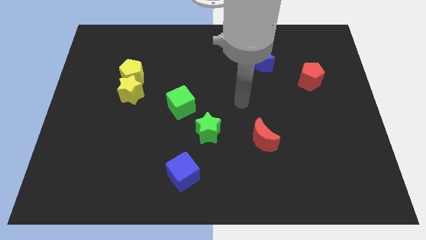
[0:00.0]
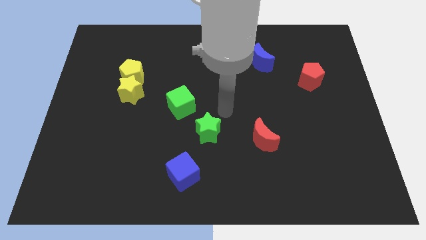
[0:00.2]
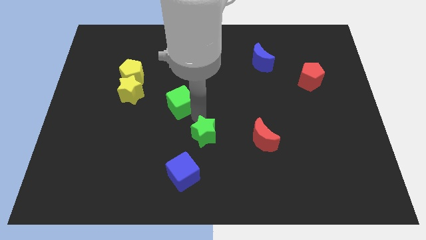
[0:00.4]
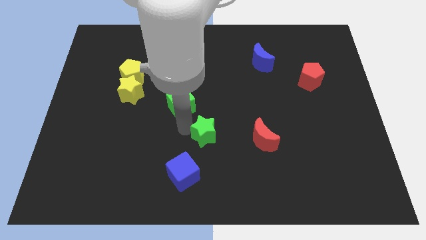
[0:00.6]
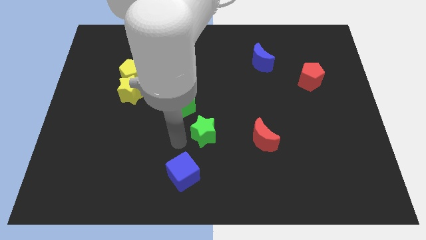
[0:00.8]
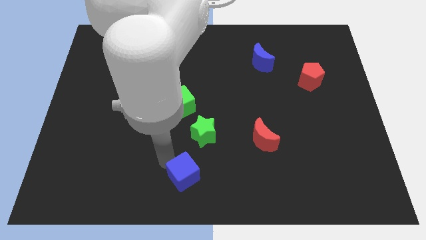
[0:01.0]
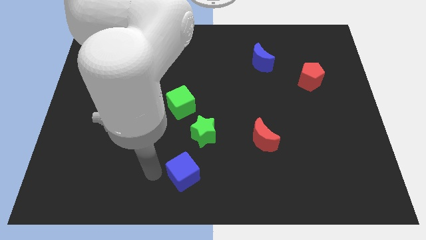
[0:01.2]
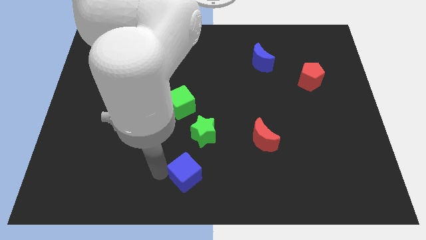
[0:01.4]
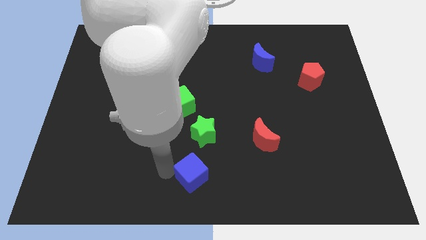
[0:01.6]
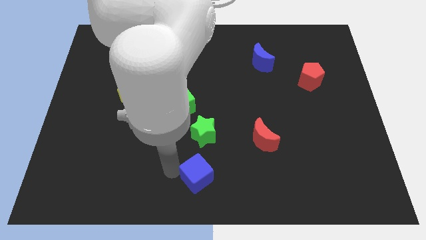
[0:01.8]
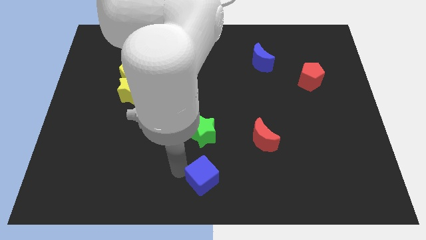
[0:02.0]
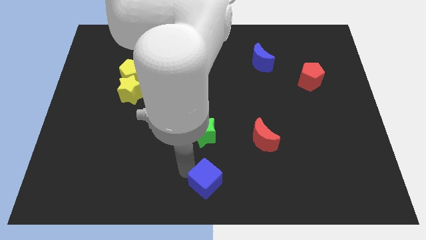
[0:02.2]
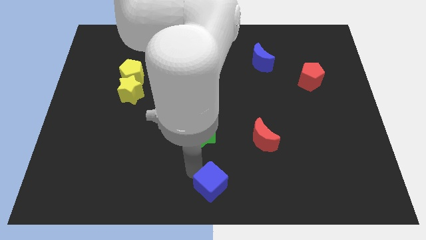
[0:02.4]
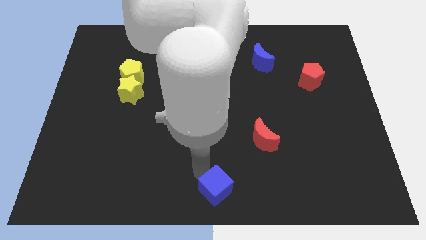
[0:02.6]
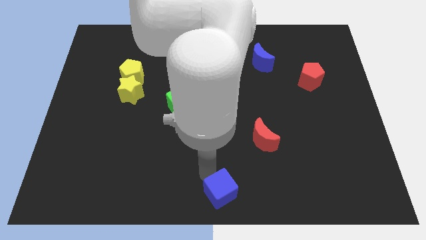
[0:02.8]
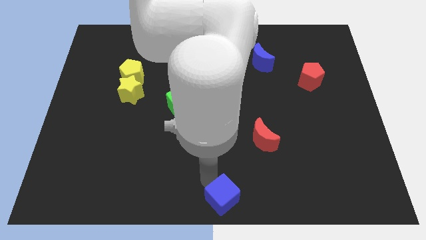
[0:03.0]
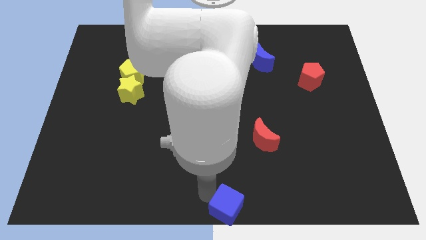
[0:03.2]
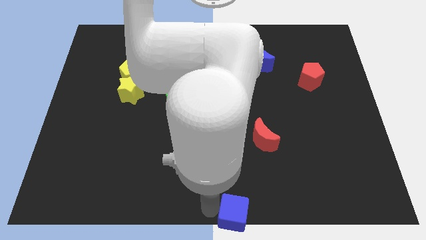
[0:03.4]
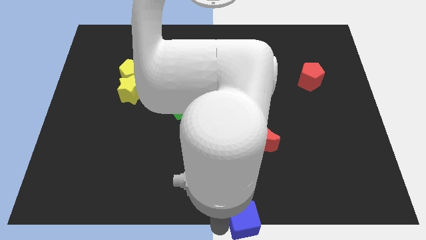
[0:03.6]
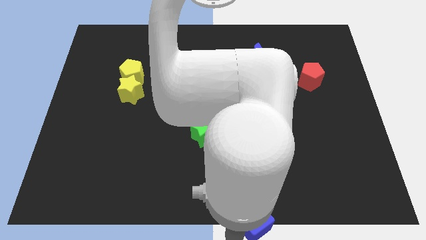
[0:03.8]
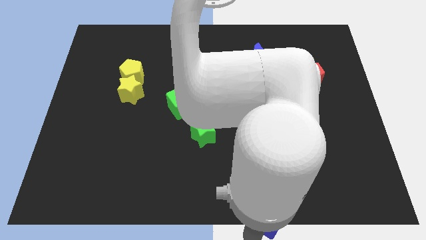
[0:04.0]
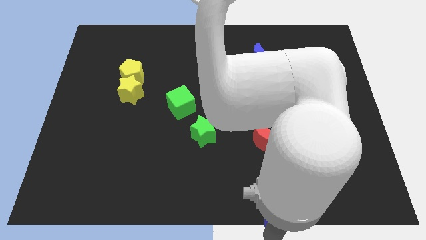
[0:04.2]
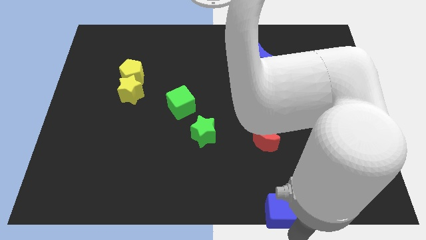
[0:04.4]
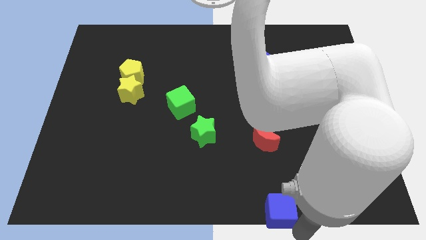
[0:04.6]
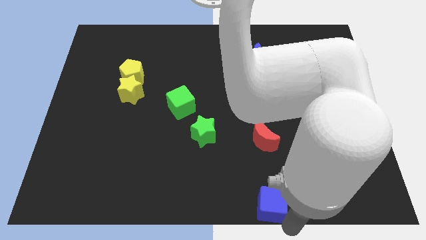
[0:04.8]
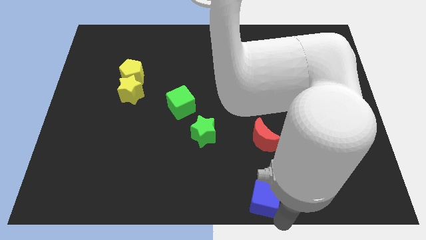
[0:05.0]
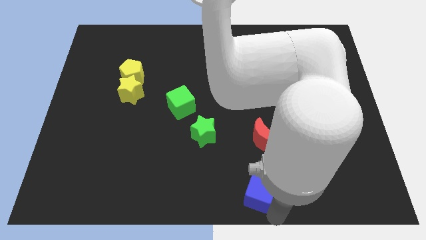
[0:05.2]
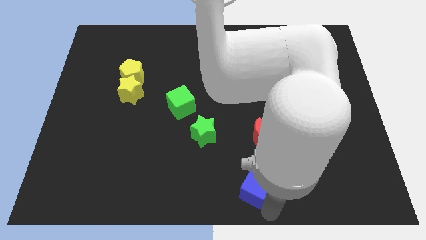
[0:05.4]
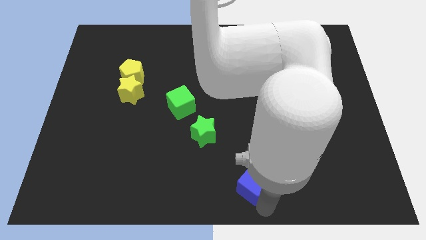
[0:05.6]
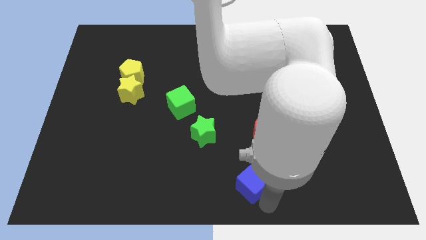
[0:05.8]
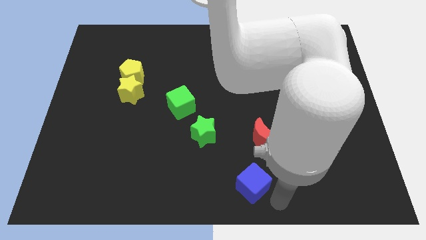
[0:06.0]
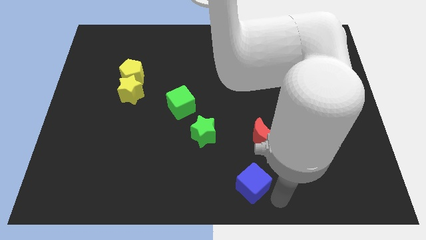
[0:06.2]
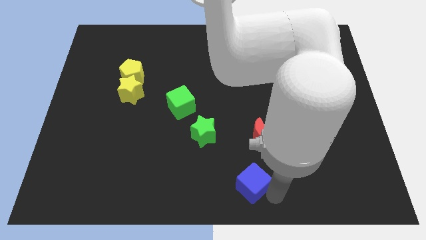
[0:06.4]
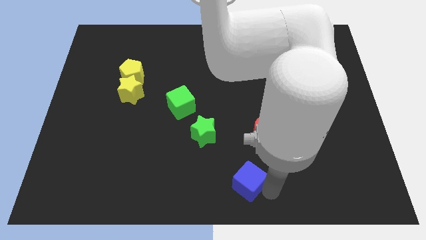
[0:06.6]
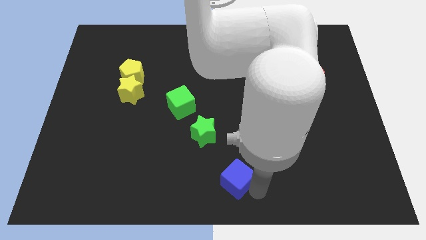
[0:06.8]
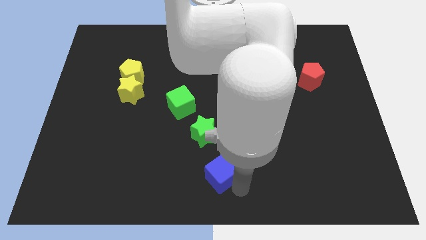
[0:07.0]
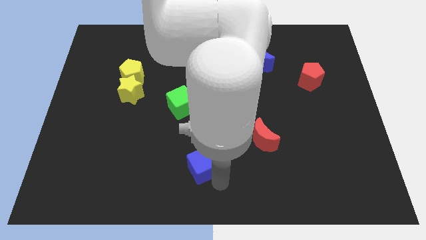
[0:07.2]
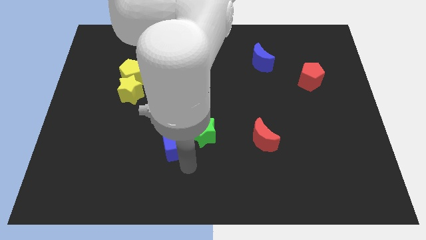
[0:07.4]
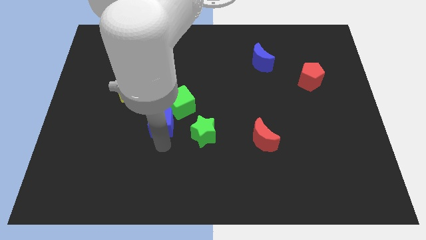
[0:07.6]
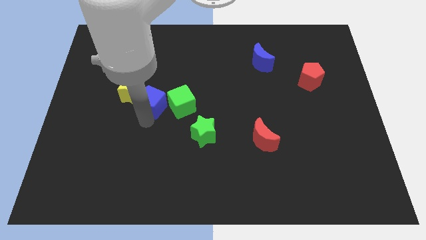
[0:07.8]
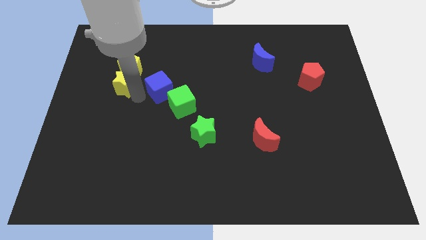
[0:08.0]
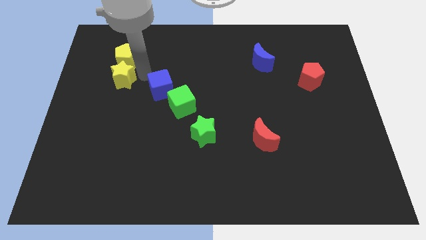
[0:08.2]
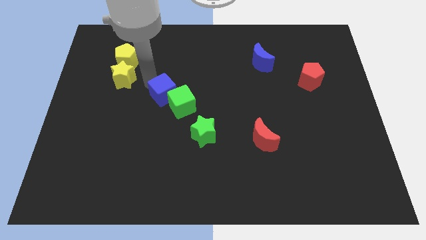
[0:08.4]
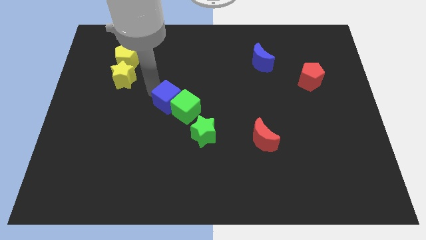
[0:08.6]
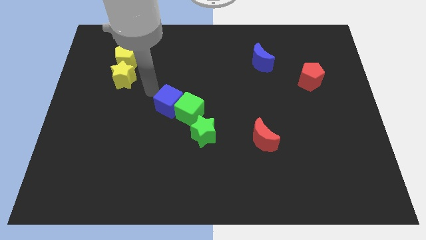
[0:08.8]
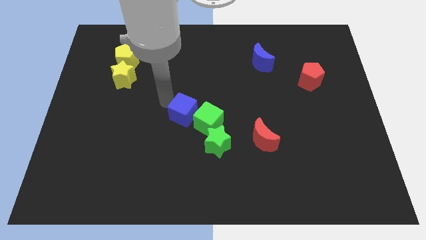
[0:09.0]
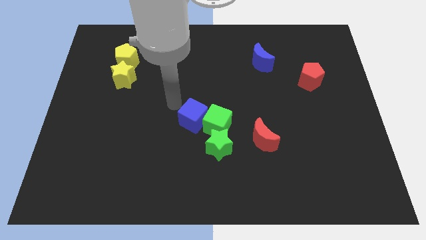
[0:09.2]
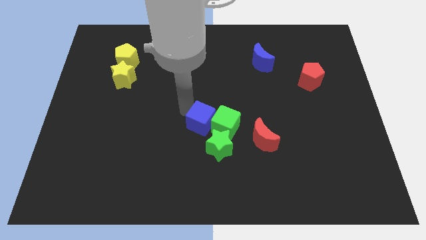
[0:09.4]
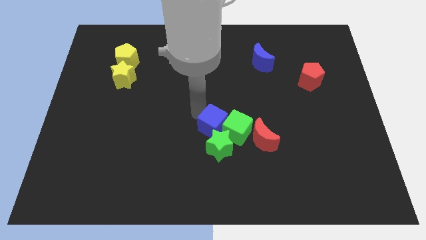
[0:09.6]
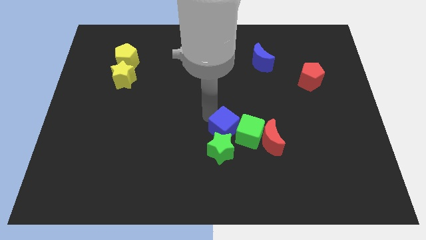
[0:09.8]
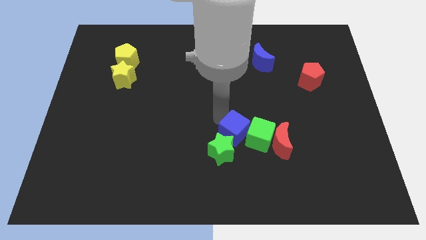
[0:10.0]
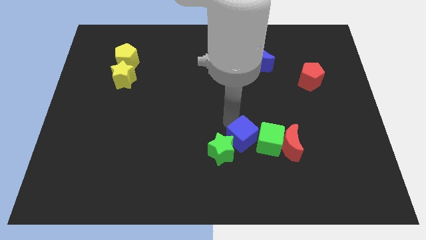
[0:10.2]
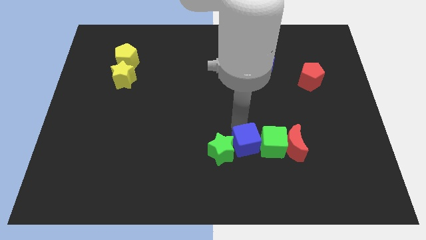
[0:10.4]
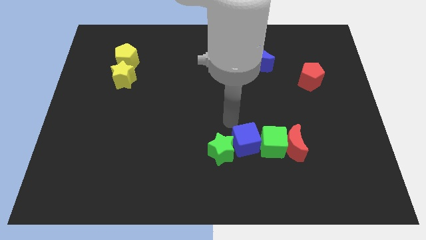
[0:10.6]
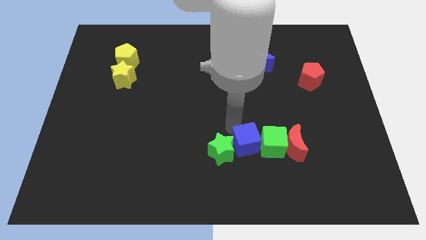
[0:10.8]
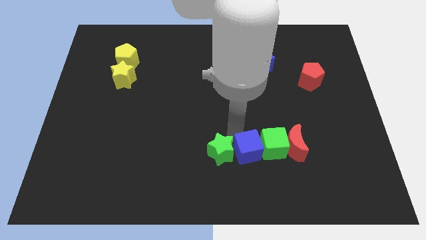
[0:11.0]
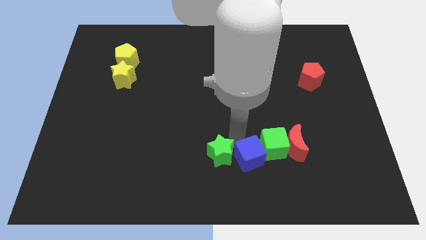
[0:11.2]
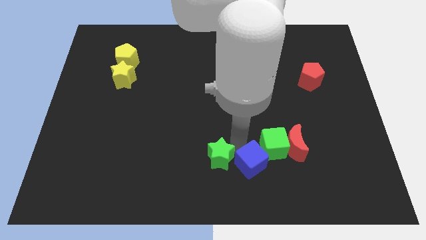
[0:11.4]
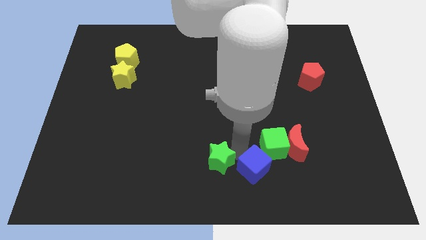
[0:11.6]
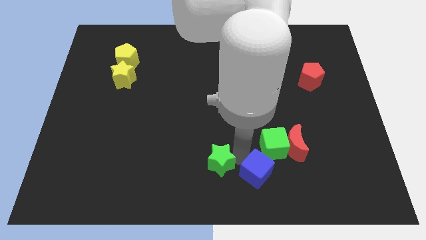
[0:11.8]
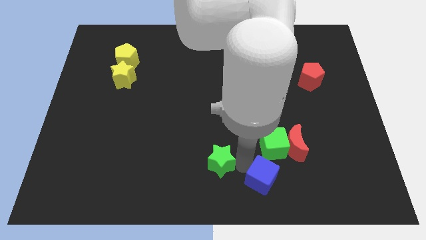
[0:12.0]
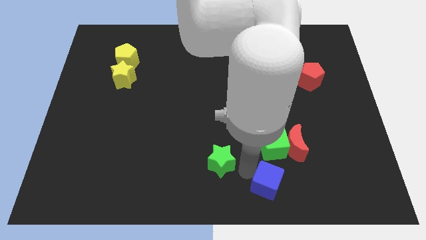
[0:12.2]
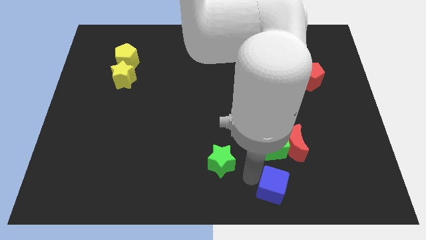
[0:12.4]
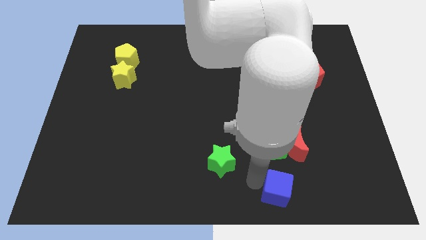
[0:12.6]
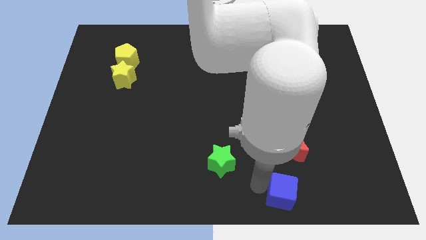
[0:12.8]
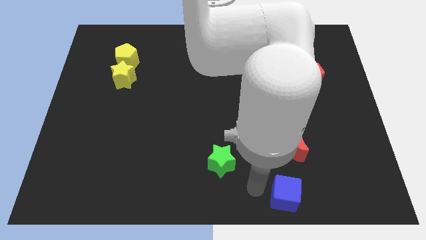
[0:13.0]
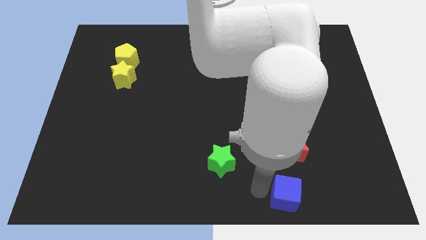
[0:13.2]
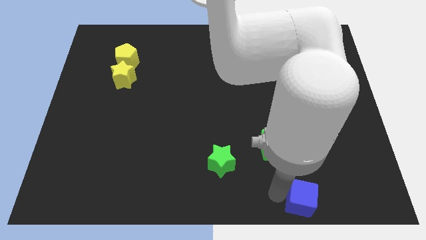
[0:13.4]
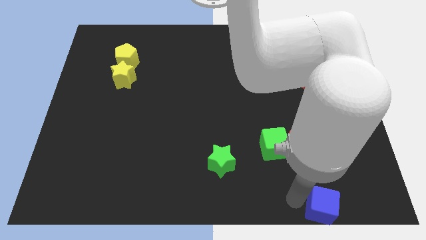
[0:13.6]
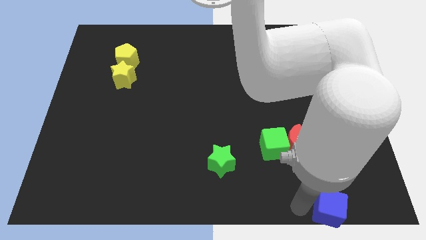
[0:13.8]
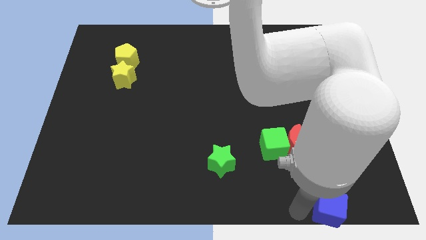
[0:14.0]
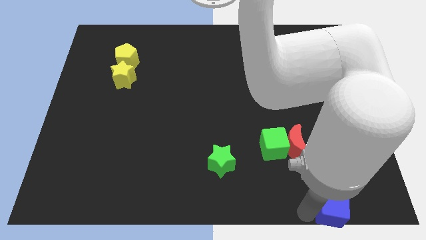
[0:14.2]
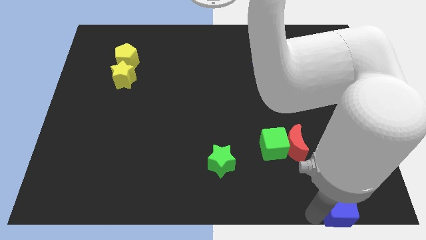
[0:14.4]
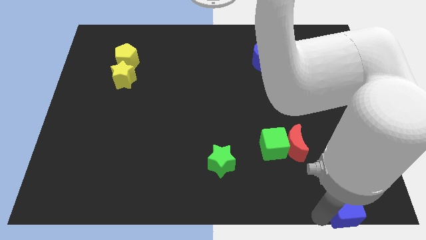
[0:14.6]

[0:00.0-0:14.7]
put the blue cube to the lower right corner
